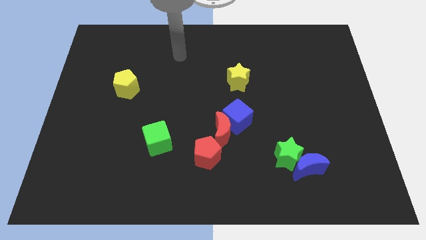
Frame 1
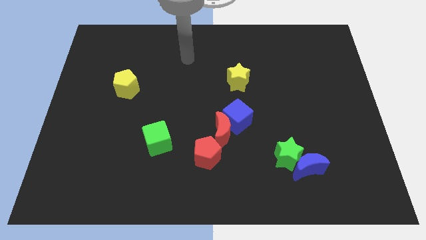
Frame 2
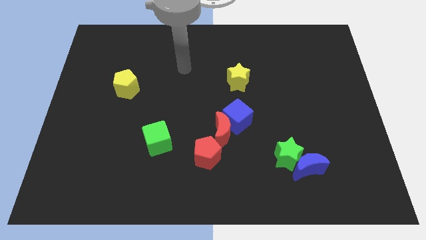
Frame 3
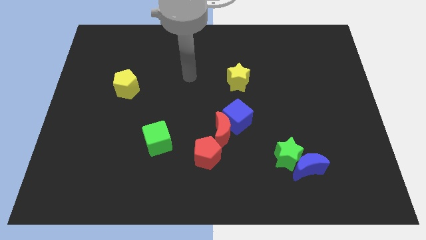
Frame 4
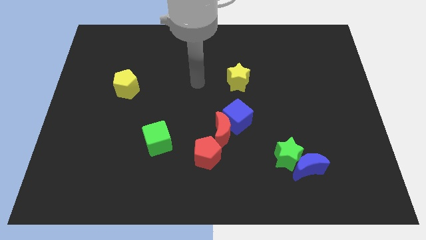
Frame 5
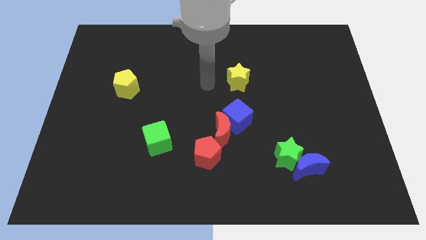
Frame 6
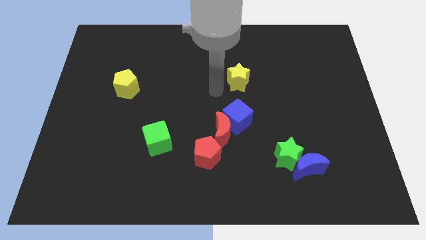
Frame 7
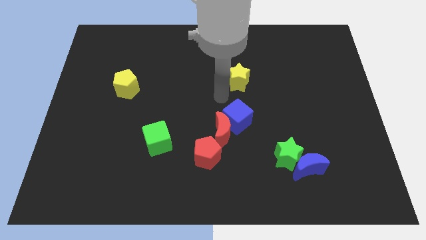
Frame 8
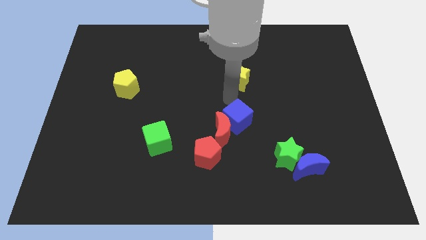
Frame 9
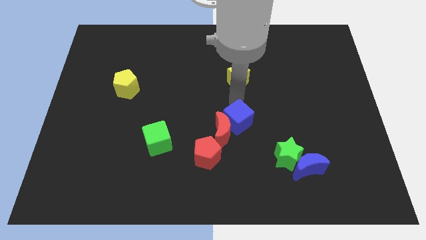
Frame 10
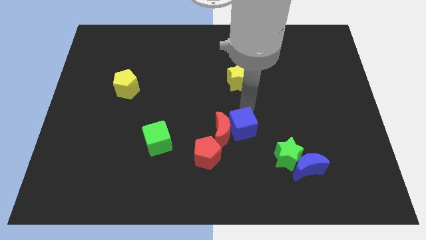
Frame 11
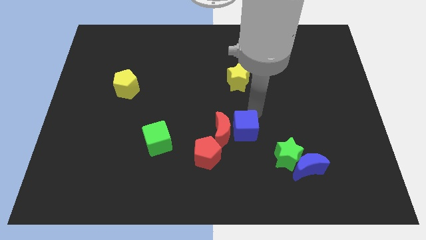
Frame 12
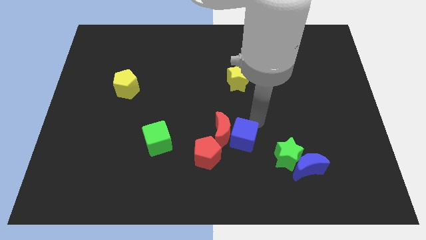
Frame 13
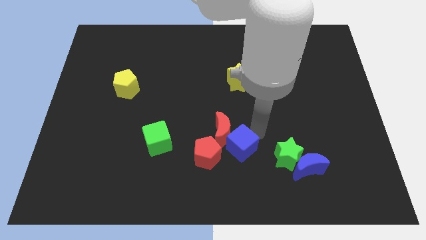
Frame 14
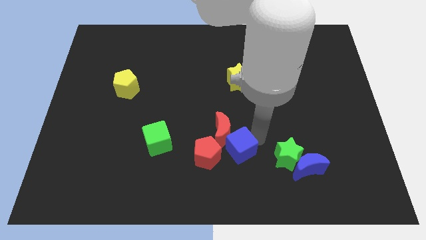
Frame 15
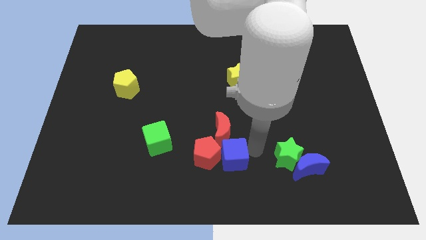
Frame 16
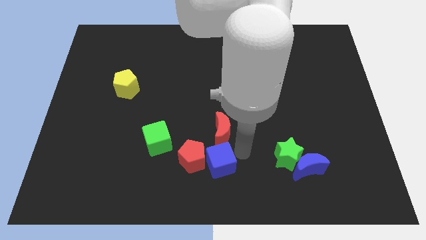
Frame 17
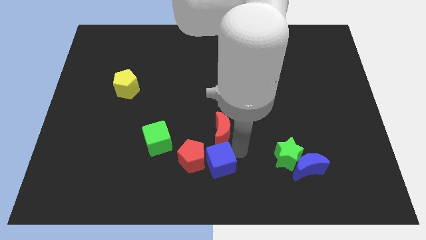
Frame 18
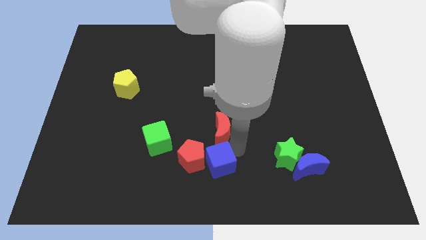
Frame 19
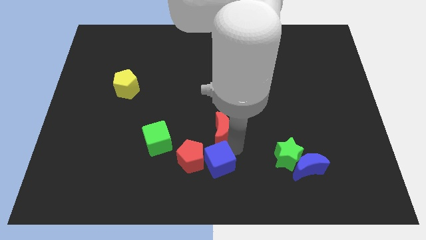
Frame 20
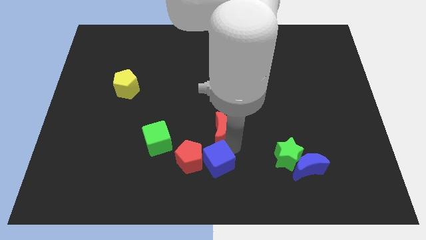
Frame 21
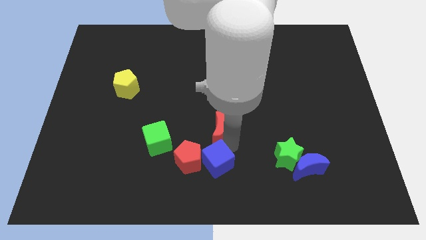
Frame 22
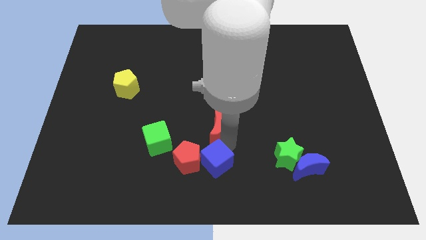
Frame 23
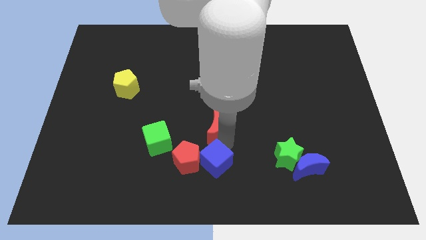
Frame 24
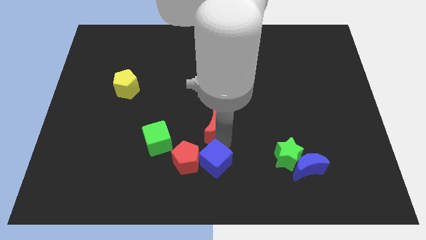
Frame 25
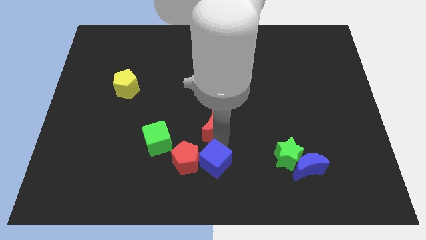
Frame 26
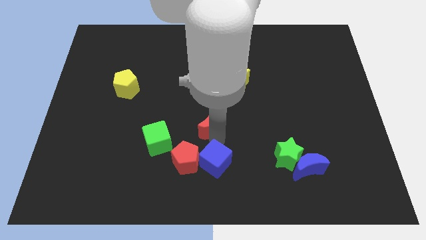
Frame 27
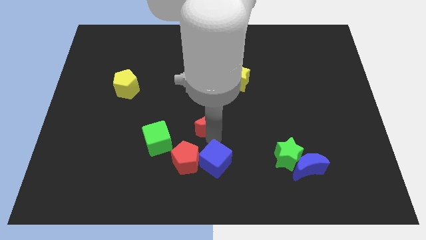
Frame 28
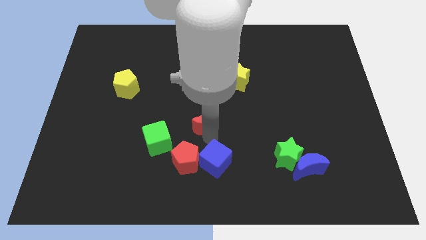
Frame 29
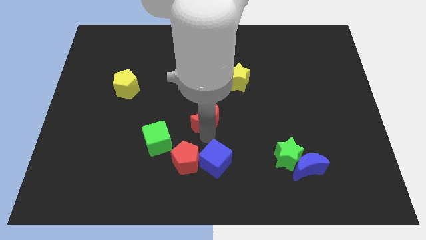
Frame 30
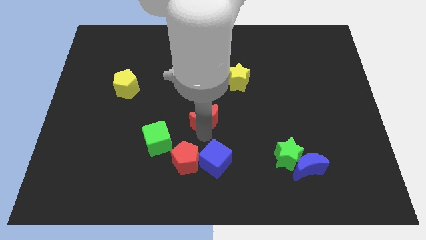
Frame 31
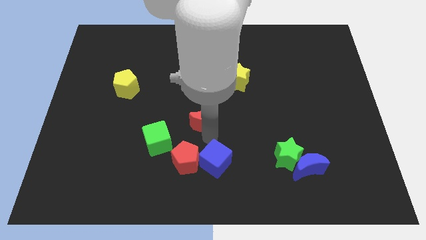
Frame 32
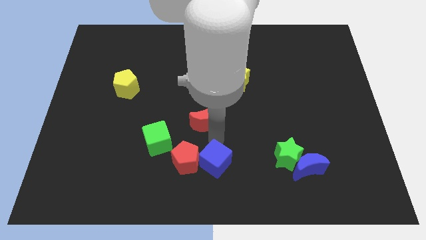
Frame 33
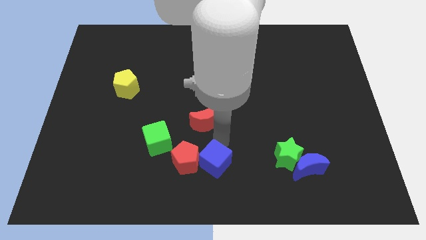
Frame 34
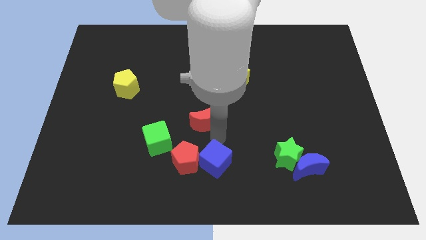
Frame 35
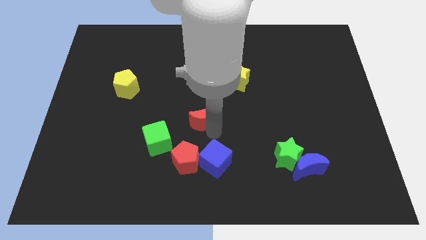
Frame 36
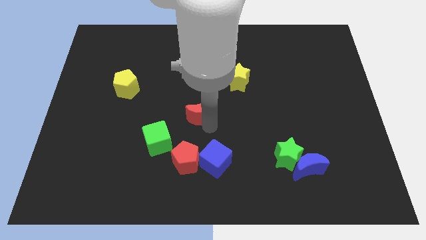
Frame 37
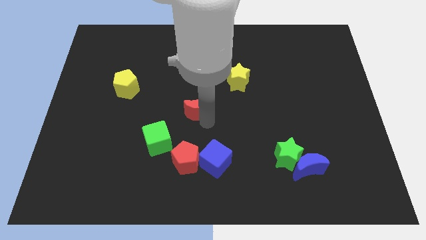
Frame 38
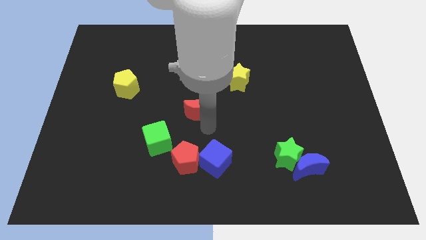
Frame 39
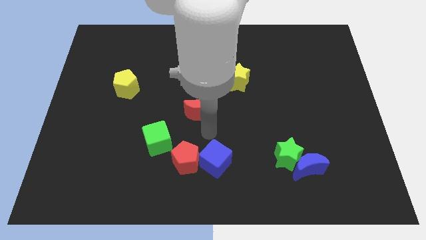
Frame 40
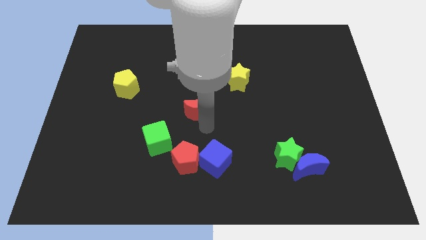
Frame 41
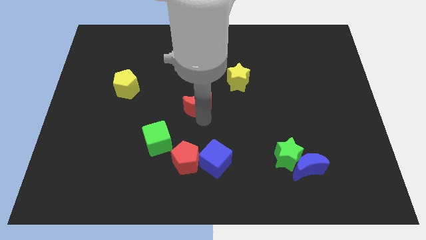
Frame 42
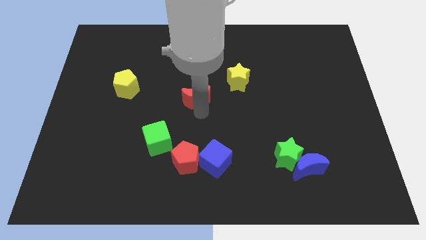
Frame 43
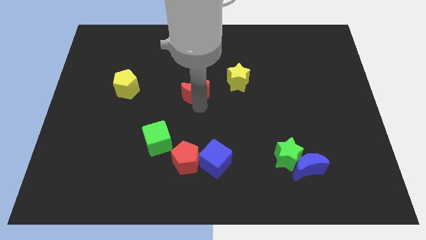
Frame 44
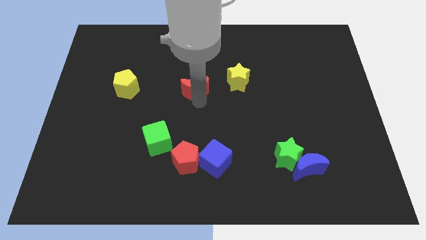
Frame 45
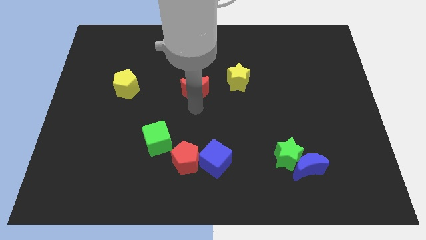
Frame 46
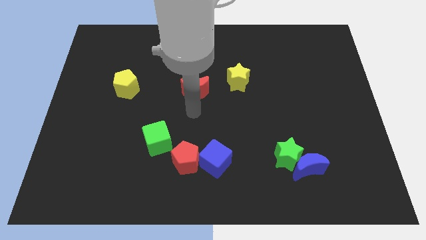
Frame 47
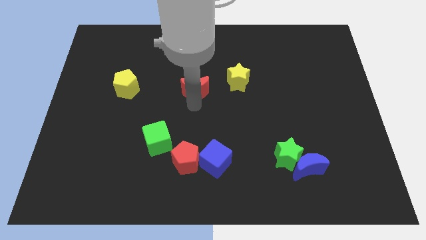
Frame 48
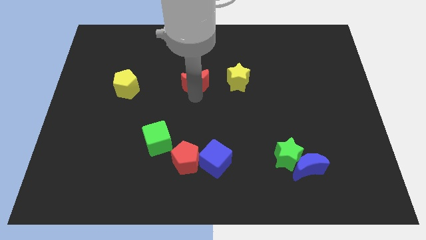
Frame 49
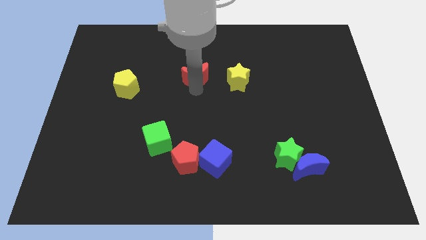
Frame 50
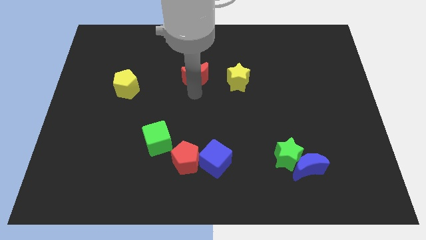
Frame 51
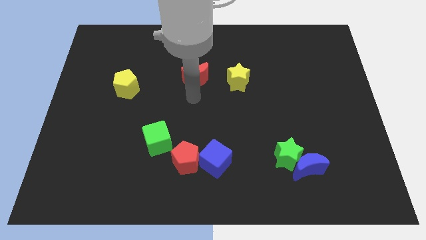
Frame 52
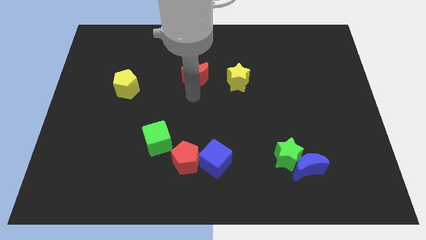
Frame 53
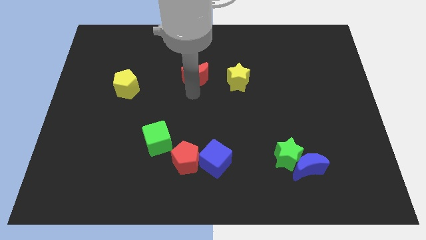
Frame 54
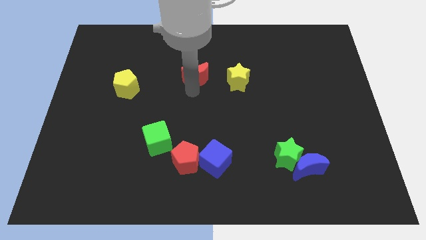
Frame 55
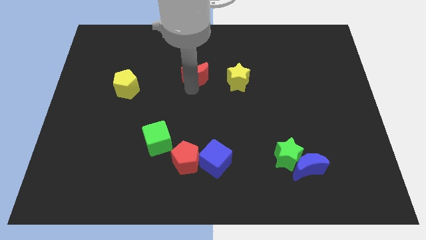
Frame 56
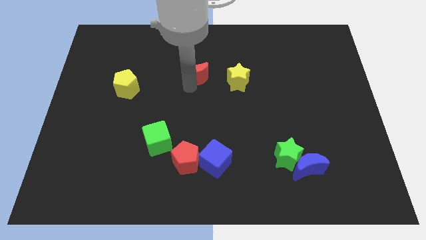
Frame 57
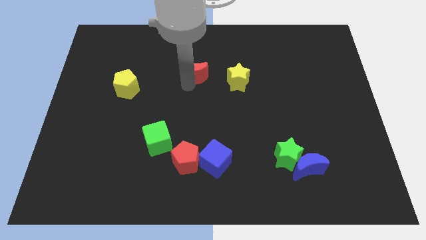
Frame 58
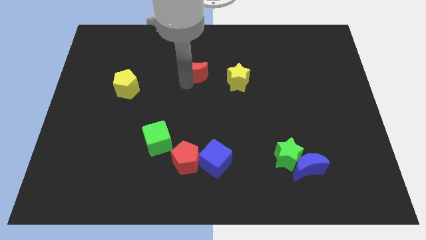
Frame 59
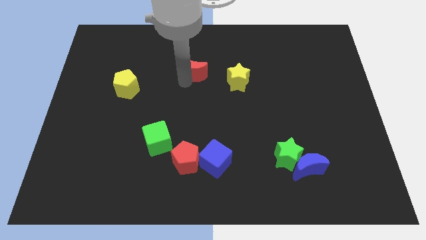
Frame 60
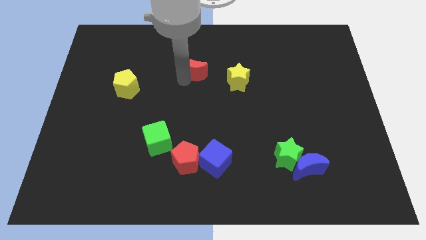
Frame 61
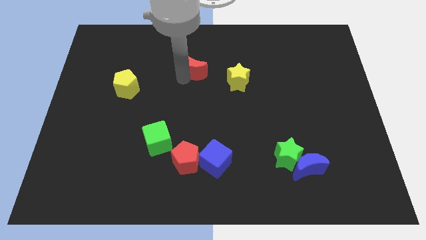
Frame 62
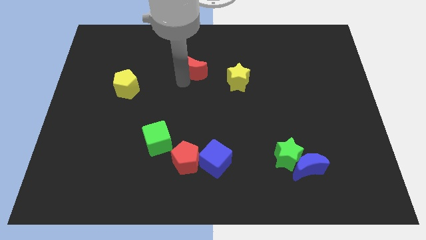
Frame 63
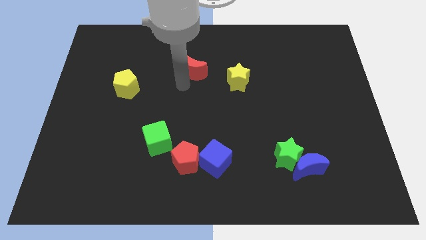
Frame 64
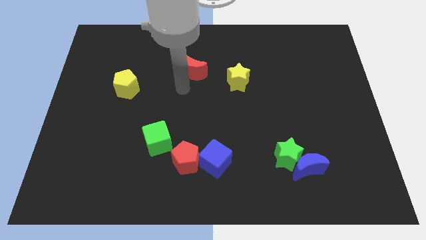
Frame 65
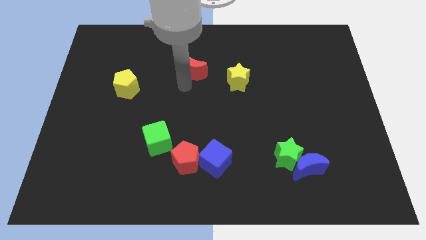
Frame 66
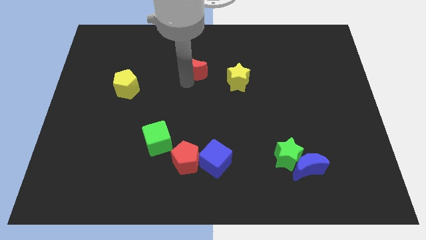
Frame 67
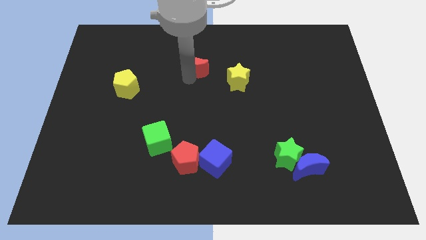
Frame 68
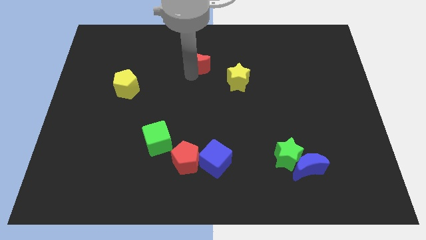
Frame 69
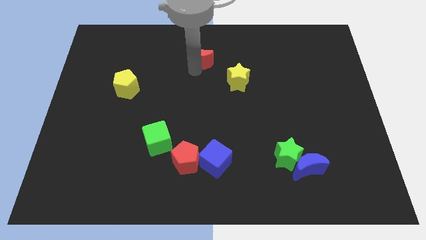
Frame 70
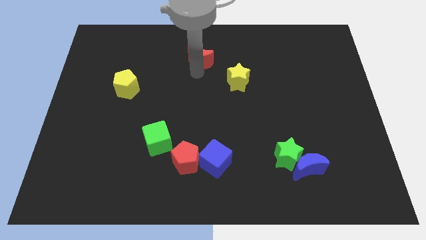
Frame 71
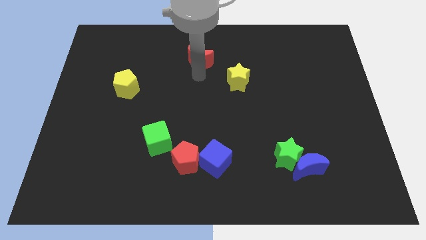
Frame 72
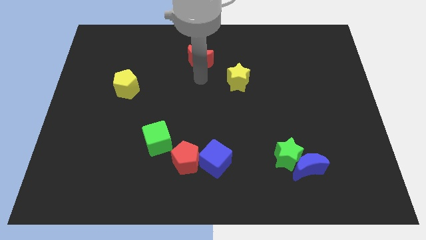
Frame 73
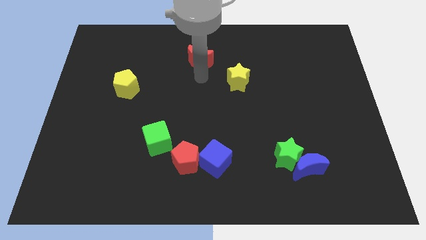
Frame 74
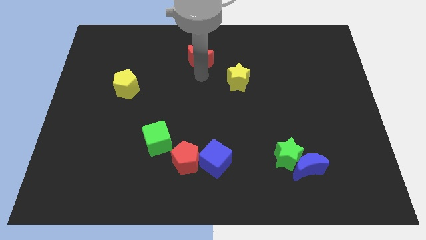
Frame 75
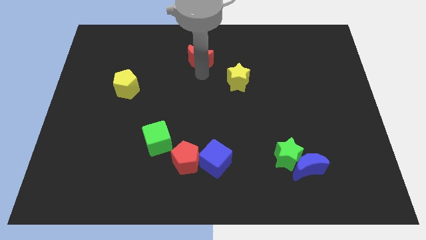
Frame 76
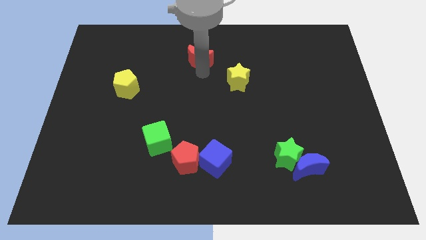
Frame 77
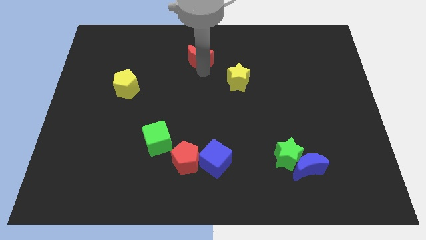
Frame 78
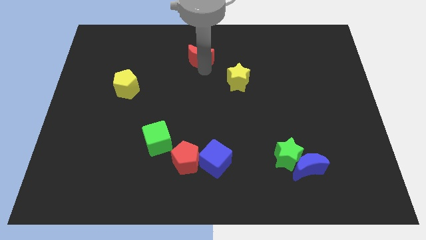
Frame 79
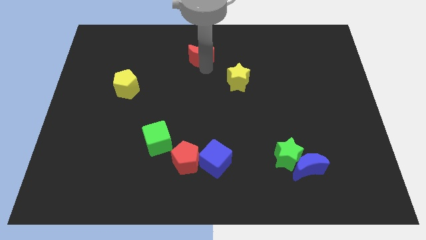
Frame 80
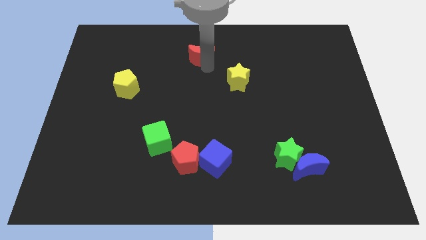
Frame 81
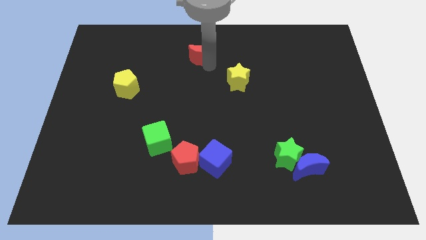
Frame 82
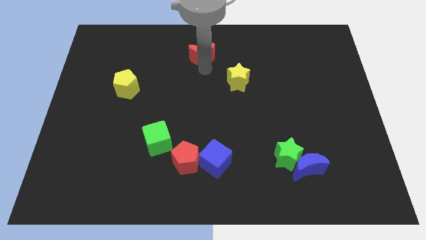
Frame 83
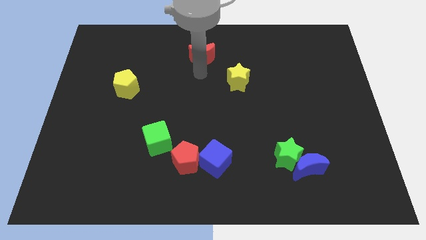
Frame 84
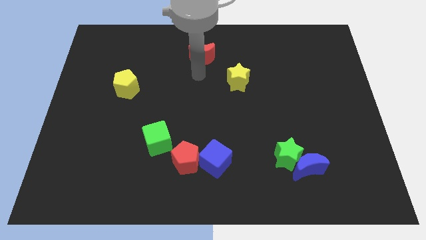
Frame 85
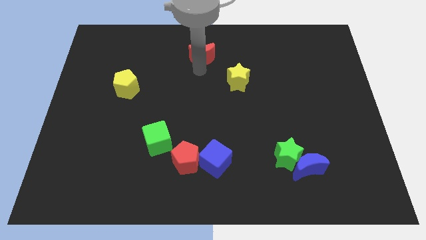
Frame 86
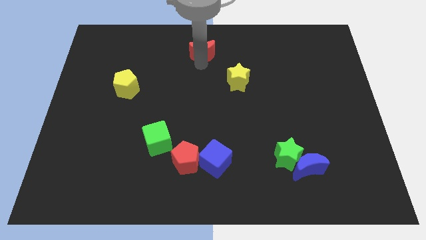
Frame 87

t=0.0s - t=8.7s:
push the red moon to the top
